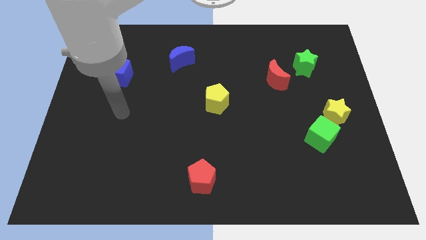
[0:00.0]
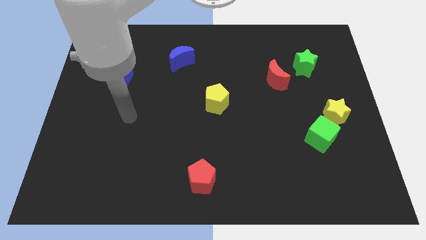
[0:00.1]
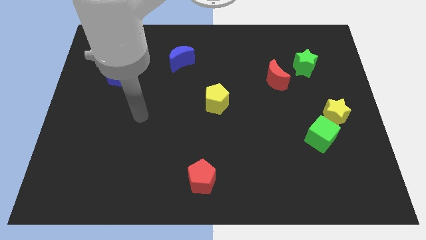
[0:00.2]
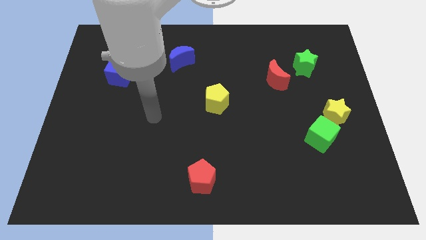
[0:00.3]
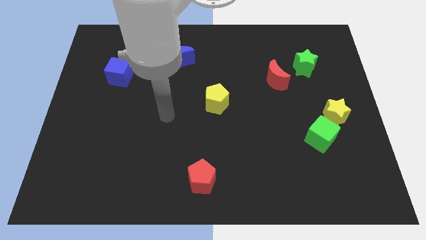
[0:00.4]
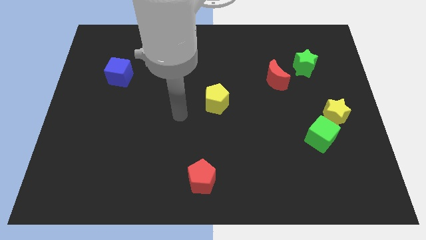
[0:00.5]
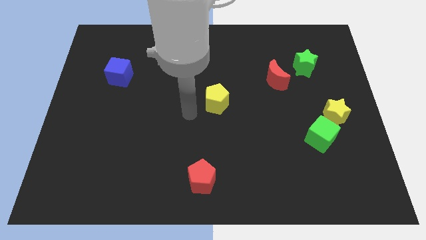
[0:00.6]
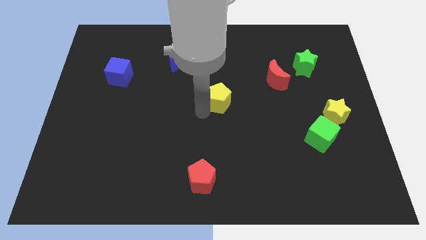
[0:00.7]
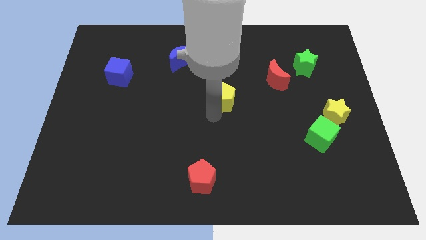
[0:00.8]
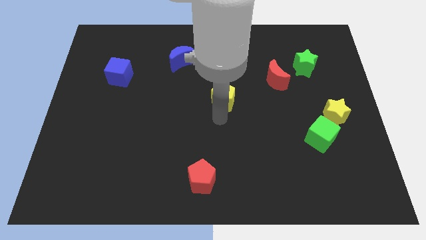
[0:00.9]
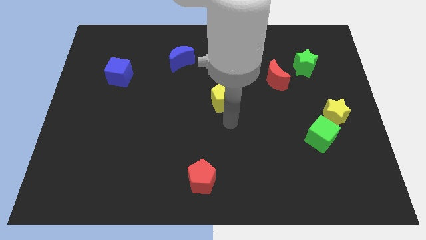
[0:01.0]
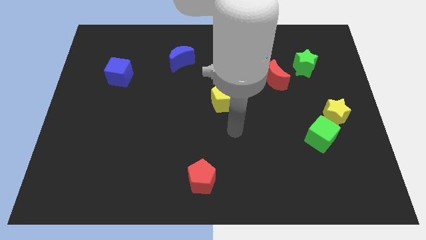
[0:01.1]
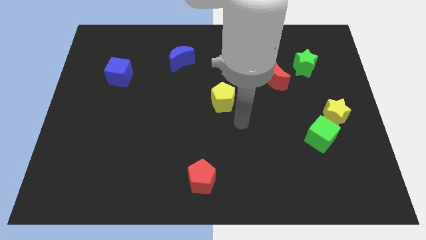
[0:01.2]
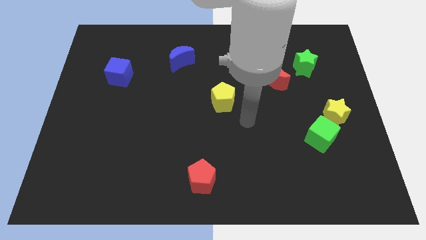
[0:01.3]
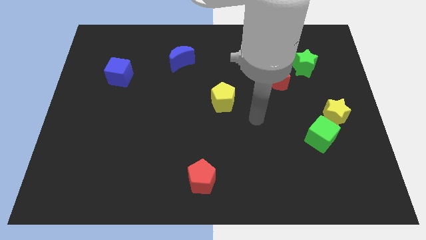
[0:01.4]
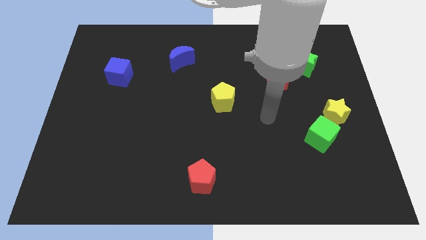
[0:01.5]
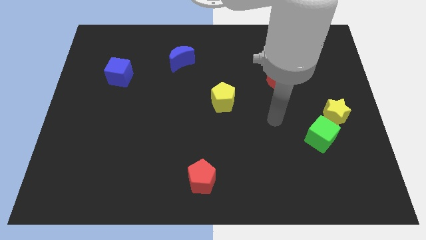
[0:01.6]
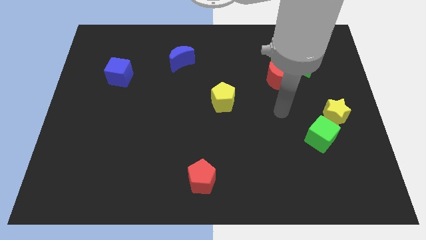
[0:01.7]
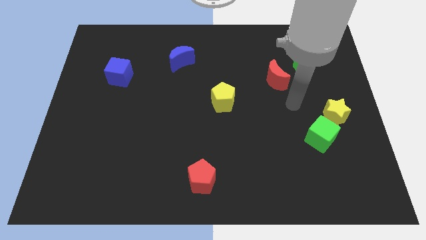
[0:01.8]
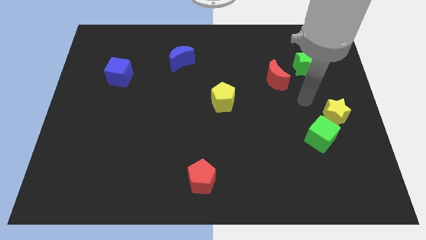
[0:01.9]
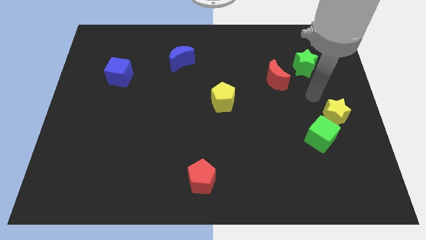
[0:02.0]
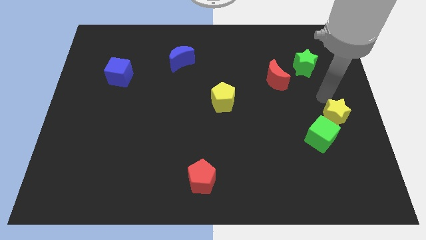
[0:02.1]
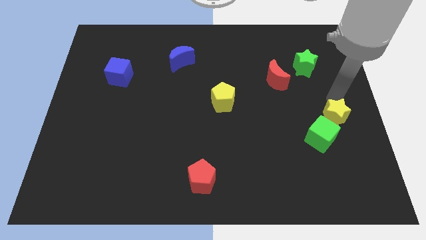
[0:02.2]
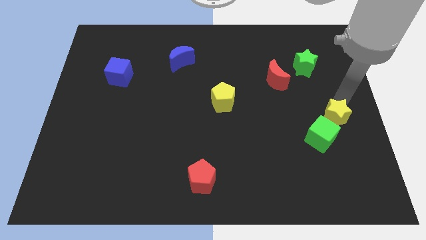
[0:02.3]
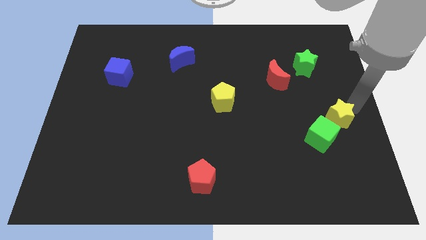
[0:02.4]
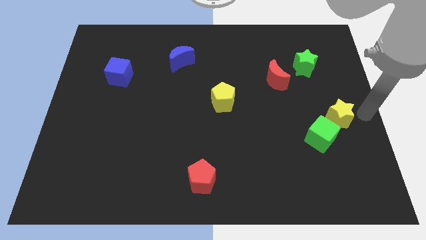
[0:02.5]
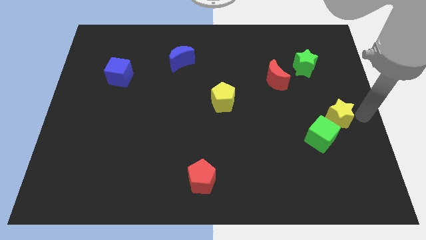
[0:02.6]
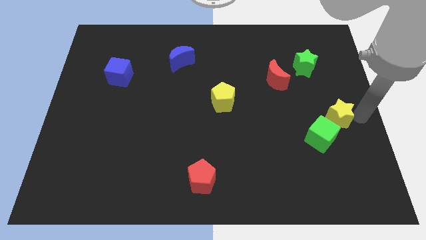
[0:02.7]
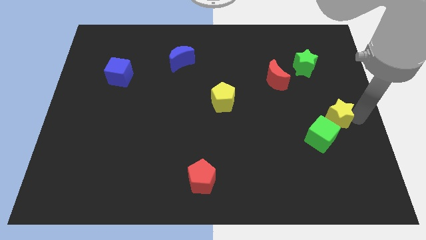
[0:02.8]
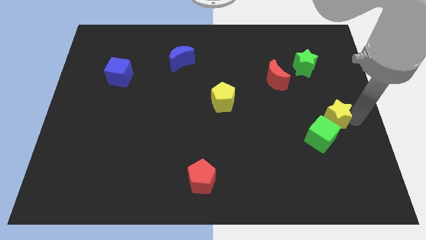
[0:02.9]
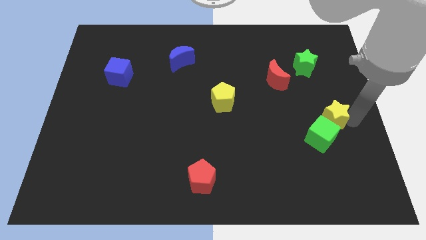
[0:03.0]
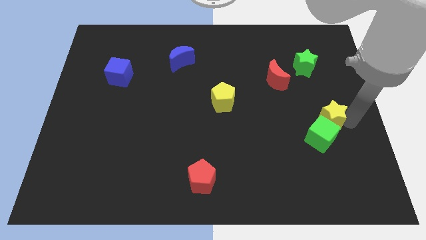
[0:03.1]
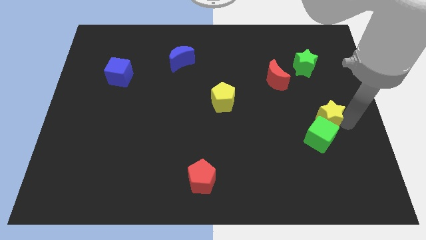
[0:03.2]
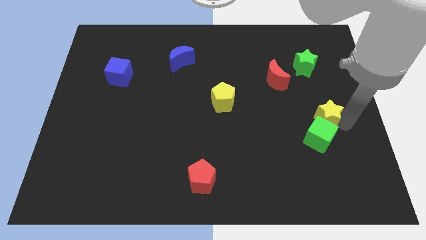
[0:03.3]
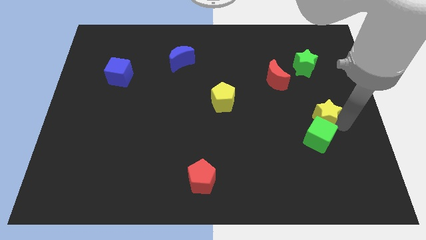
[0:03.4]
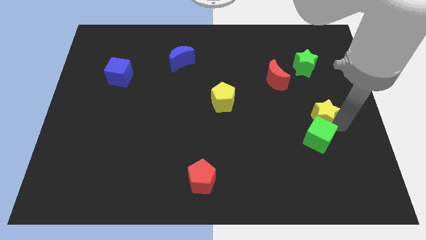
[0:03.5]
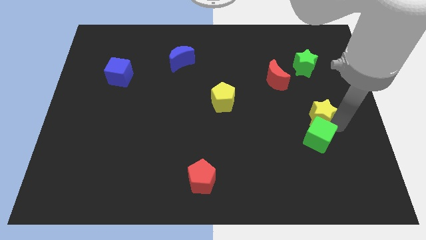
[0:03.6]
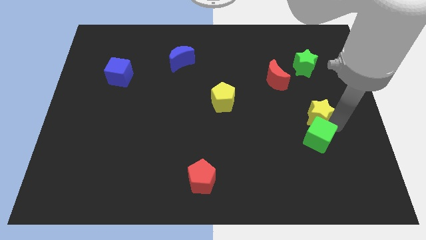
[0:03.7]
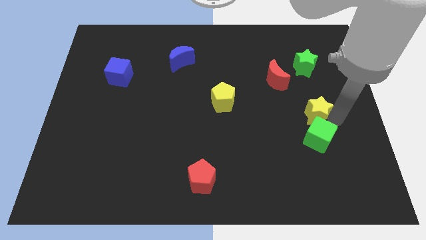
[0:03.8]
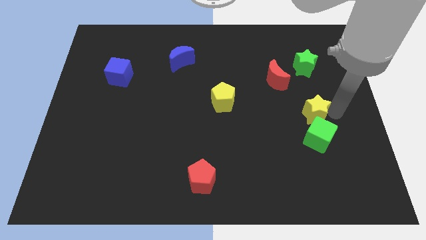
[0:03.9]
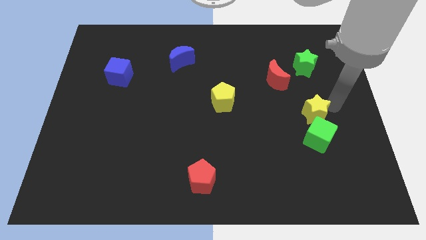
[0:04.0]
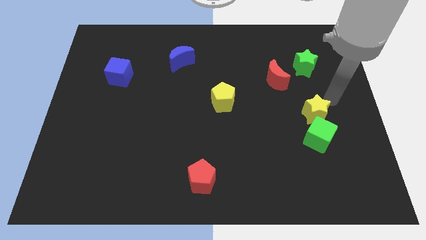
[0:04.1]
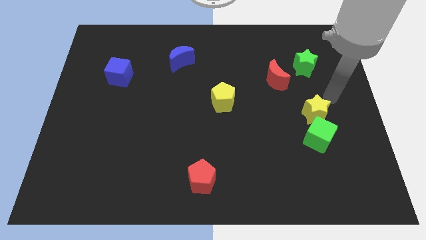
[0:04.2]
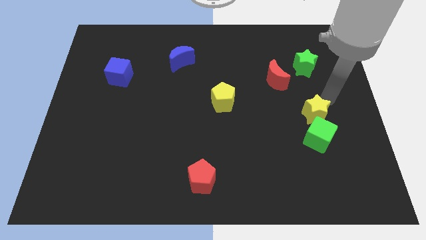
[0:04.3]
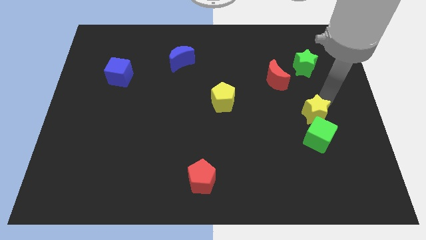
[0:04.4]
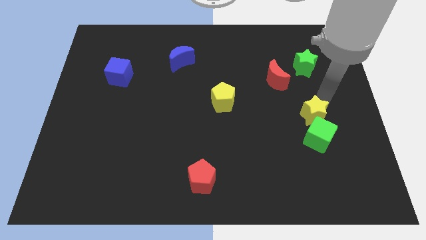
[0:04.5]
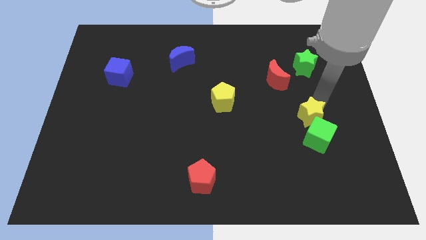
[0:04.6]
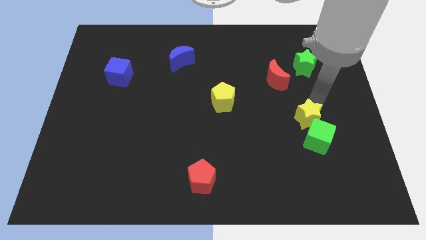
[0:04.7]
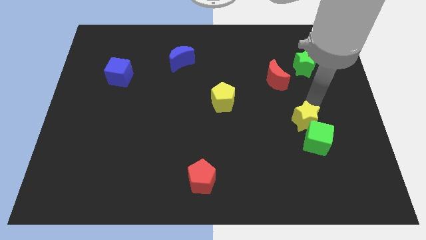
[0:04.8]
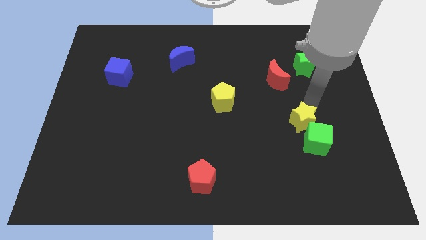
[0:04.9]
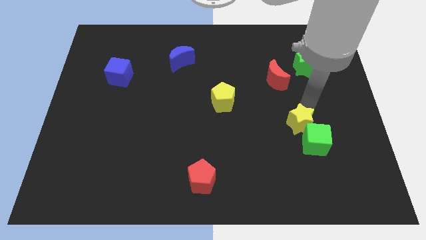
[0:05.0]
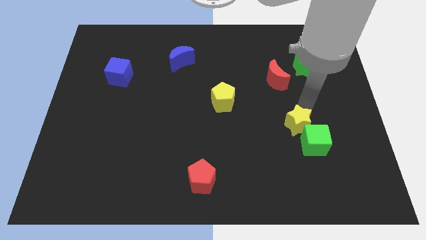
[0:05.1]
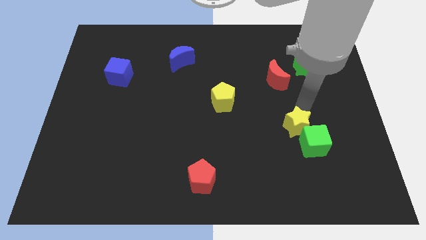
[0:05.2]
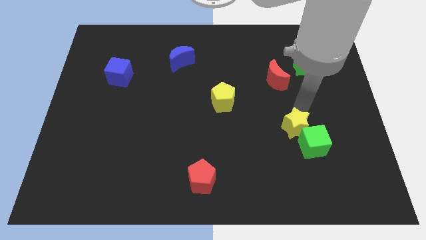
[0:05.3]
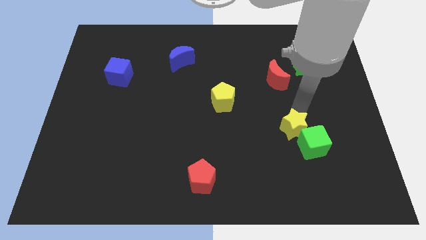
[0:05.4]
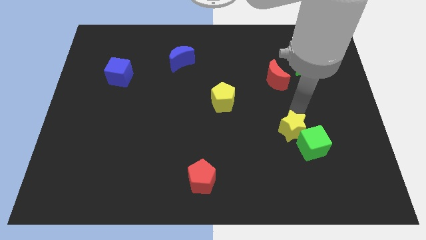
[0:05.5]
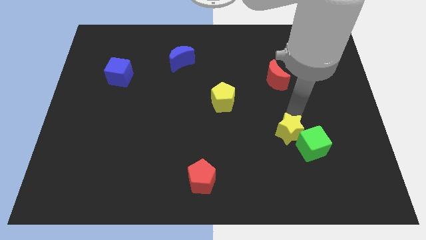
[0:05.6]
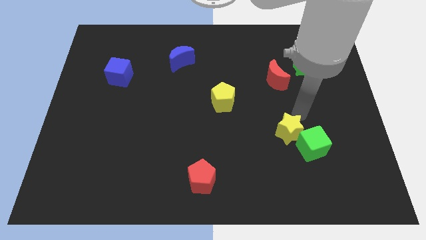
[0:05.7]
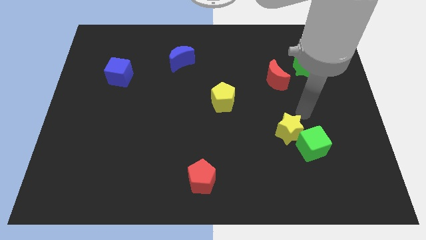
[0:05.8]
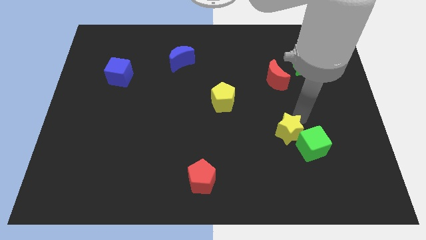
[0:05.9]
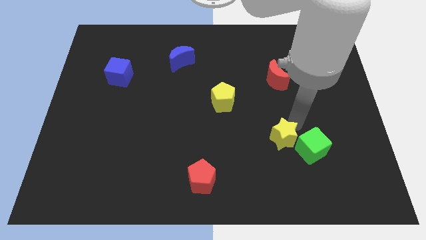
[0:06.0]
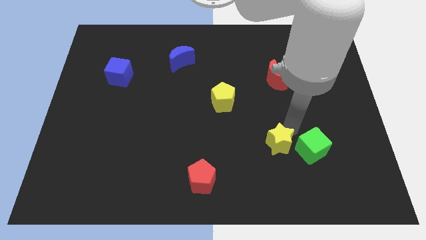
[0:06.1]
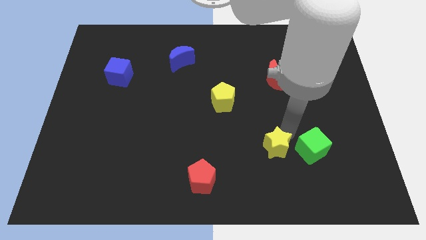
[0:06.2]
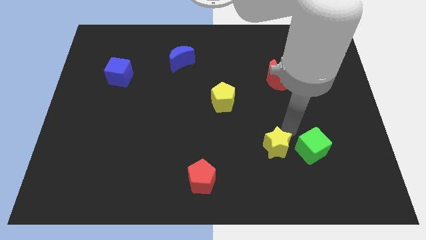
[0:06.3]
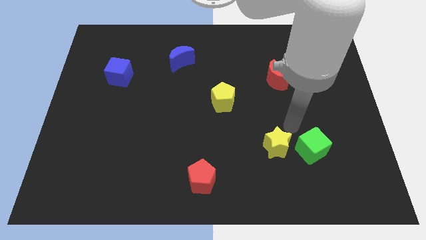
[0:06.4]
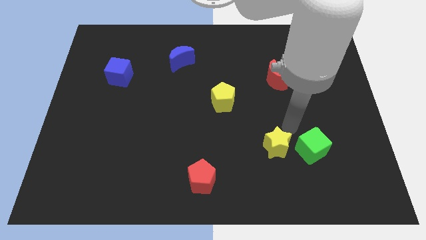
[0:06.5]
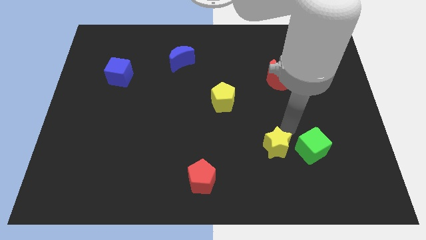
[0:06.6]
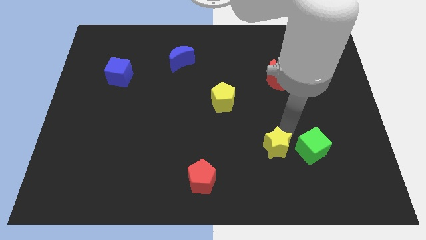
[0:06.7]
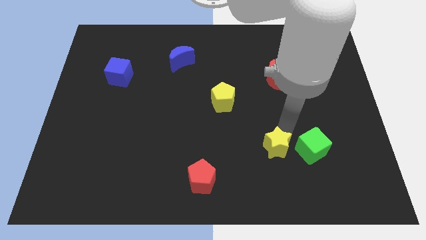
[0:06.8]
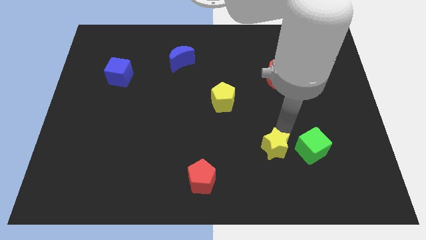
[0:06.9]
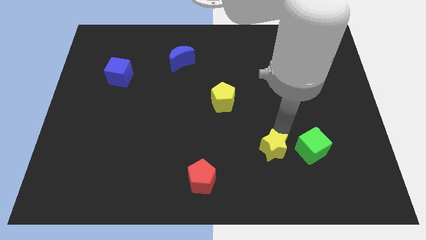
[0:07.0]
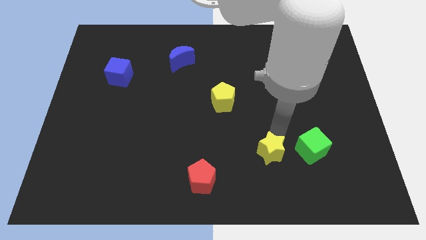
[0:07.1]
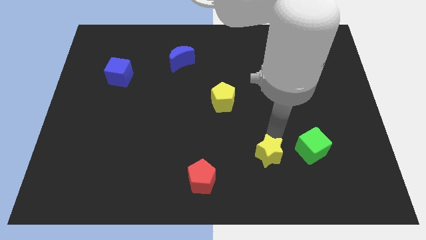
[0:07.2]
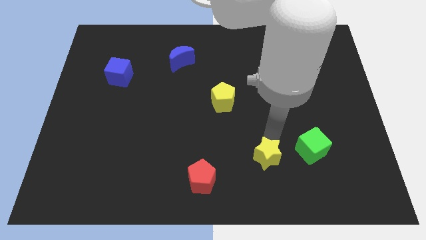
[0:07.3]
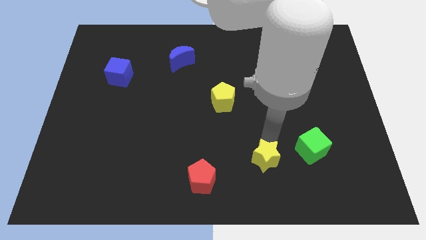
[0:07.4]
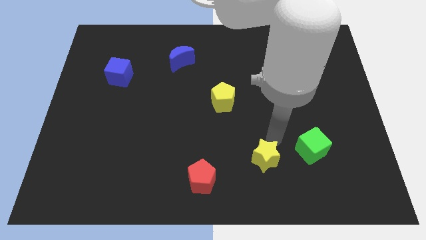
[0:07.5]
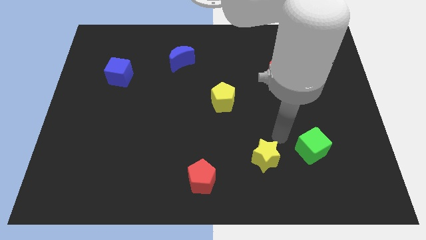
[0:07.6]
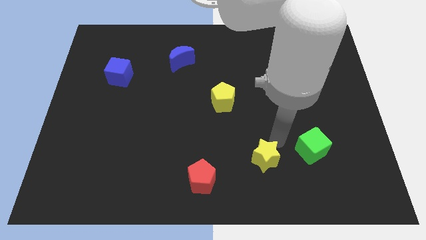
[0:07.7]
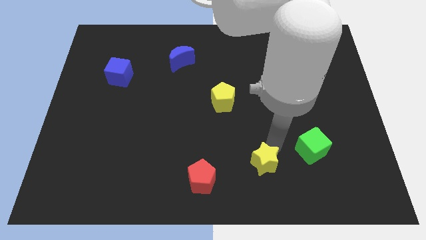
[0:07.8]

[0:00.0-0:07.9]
push the yellow star to the right side of the red pentagon
